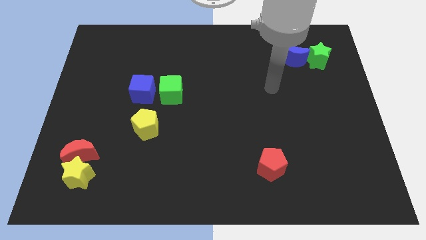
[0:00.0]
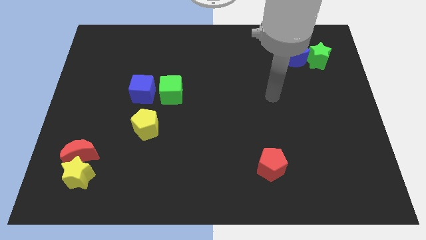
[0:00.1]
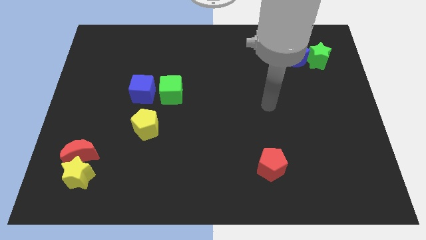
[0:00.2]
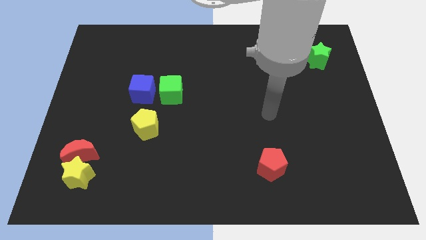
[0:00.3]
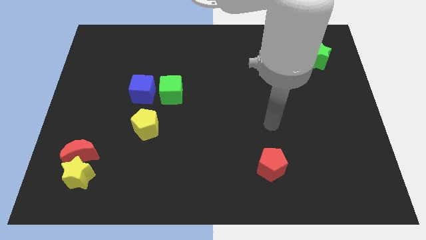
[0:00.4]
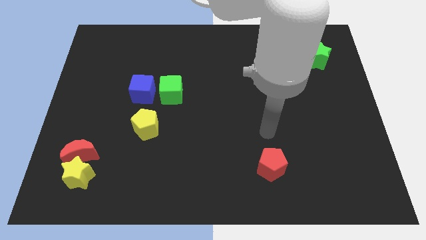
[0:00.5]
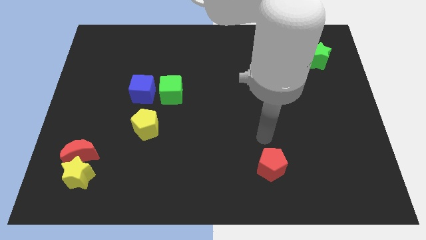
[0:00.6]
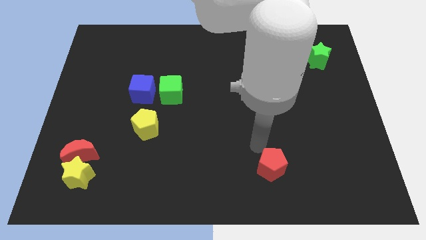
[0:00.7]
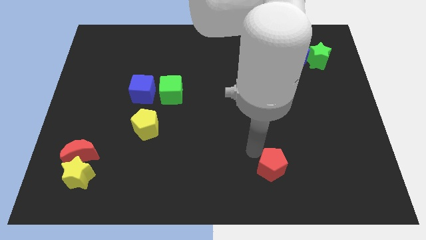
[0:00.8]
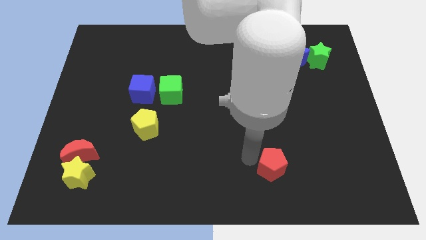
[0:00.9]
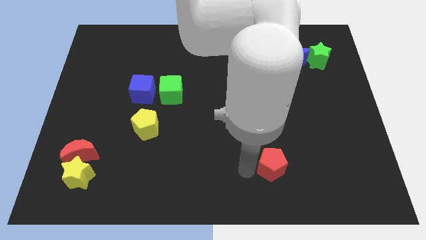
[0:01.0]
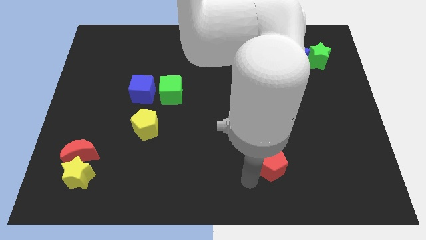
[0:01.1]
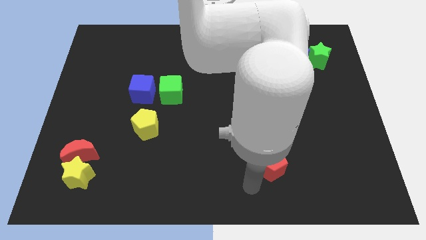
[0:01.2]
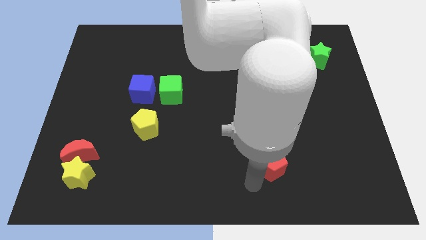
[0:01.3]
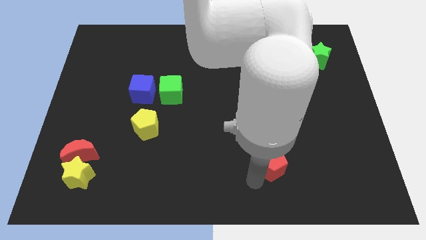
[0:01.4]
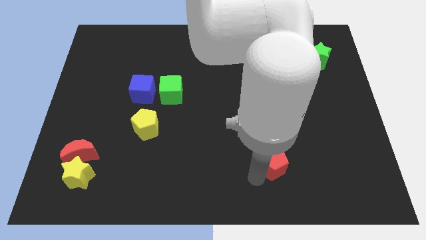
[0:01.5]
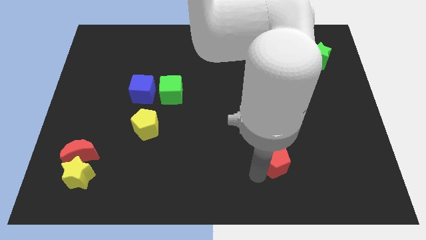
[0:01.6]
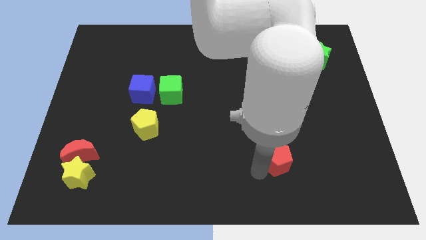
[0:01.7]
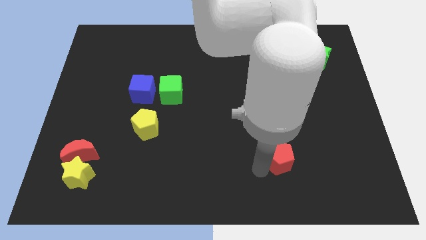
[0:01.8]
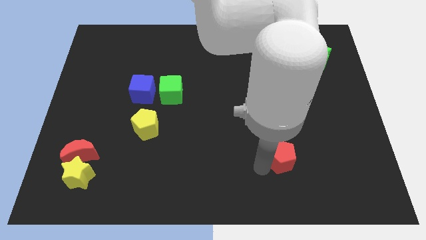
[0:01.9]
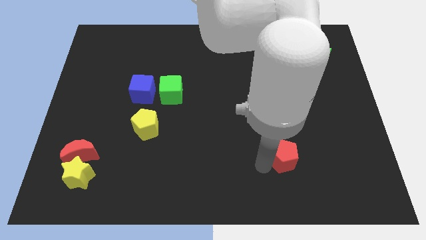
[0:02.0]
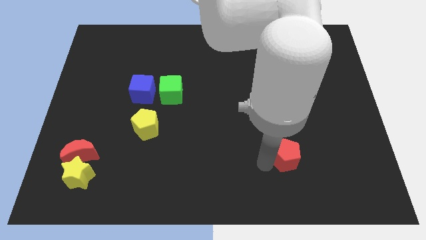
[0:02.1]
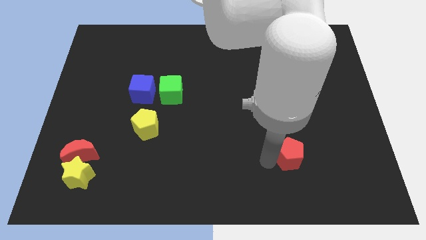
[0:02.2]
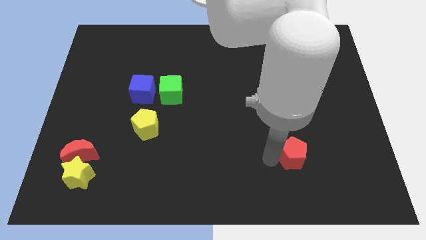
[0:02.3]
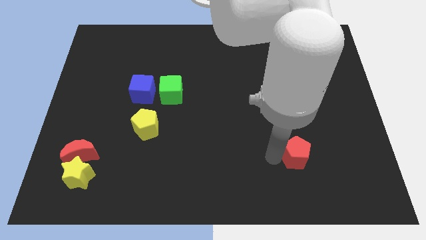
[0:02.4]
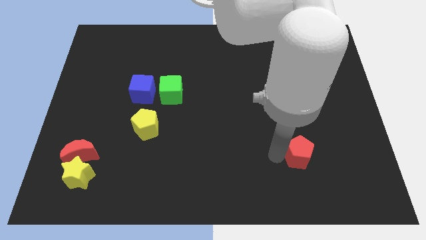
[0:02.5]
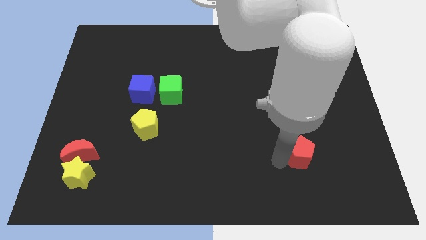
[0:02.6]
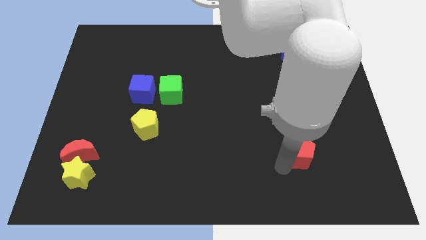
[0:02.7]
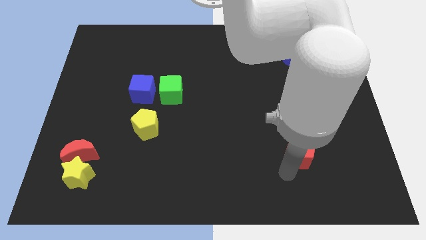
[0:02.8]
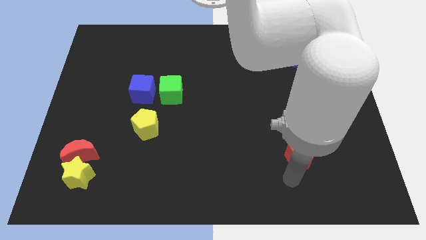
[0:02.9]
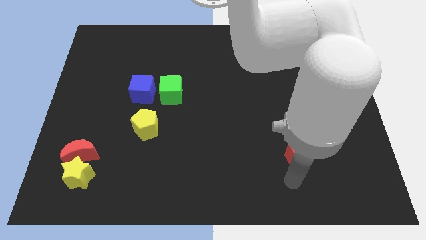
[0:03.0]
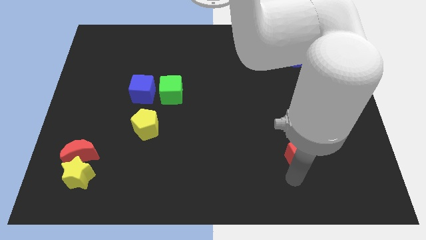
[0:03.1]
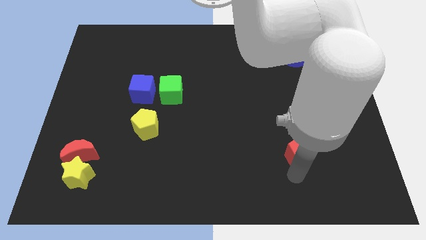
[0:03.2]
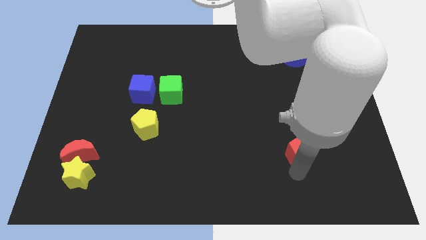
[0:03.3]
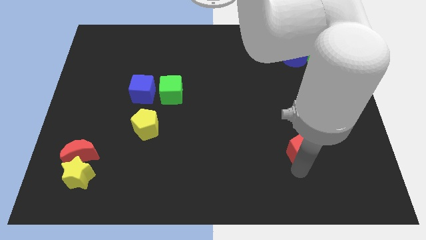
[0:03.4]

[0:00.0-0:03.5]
slightly move the red pentagon diagonally up and to the right

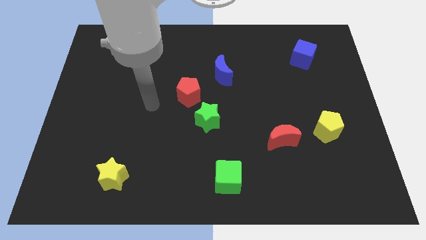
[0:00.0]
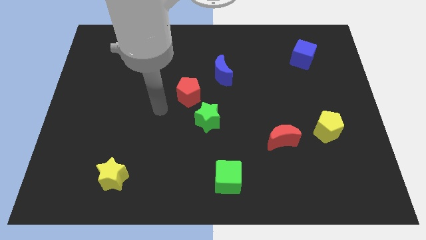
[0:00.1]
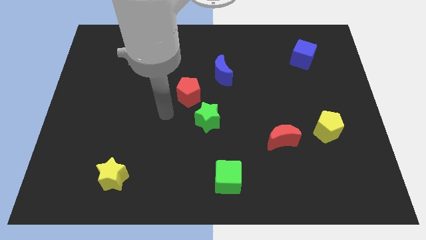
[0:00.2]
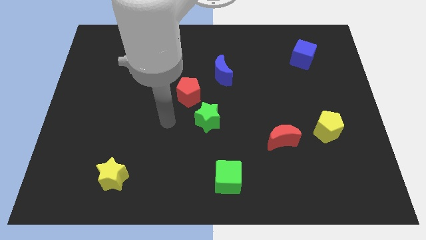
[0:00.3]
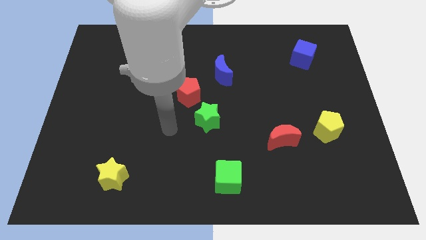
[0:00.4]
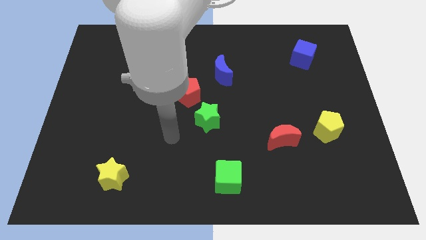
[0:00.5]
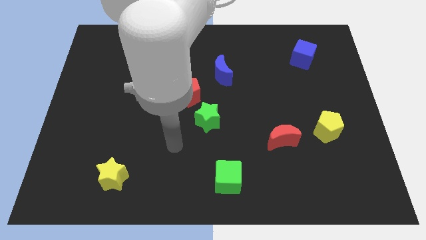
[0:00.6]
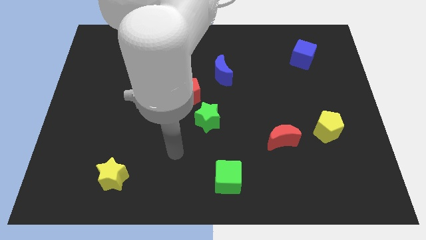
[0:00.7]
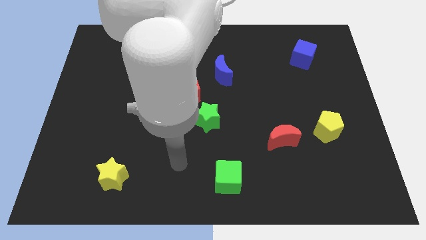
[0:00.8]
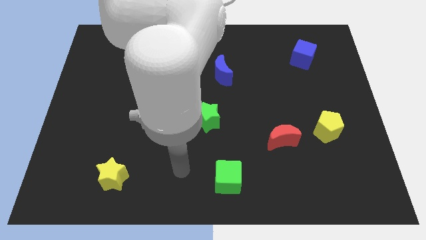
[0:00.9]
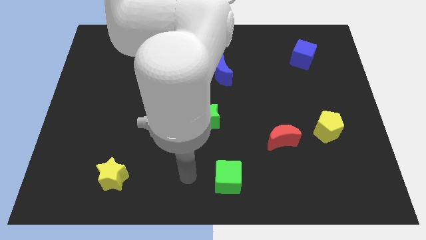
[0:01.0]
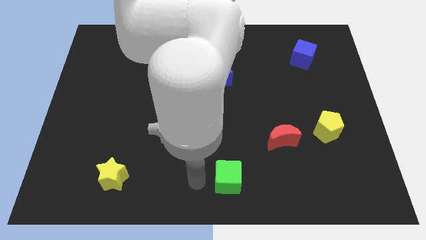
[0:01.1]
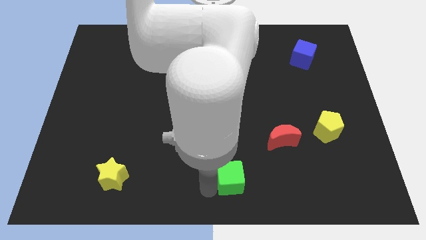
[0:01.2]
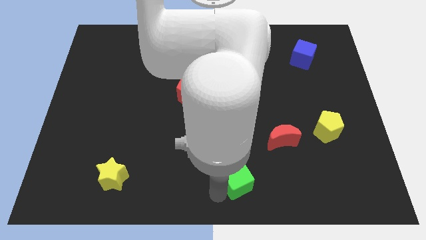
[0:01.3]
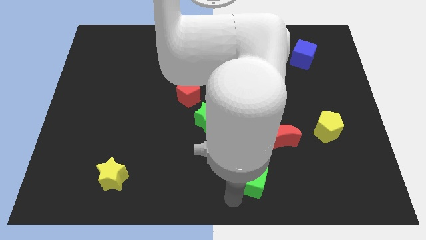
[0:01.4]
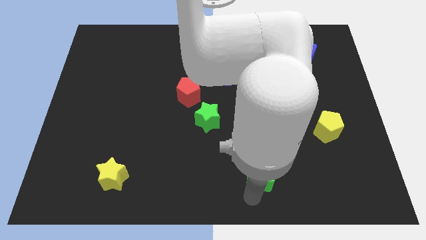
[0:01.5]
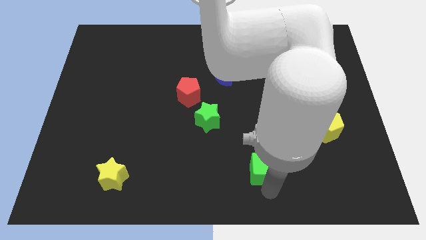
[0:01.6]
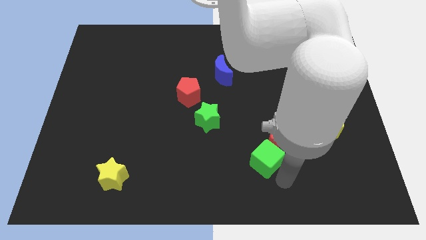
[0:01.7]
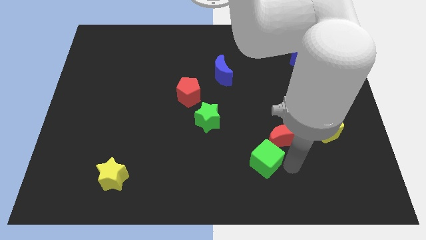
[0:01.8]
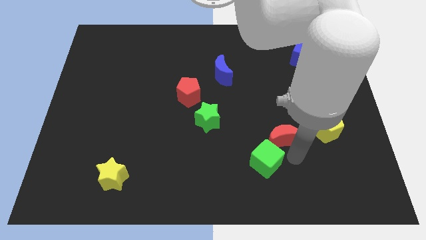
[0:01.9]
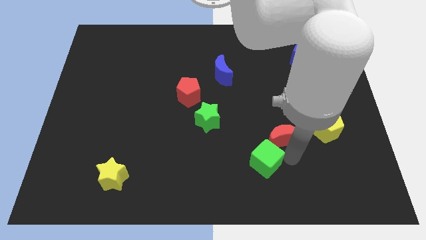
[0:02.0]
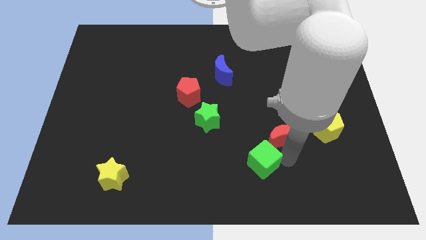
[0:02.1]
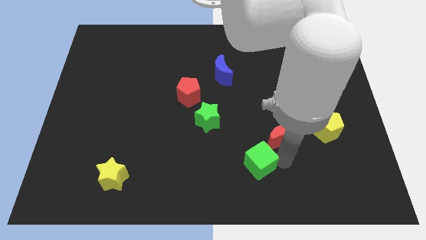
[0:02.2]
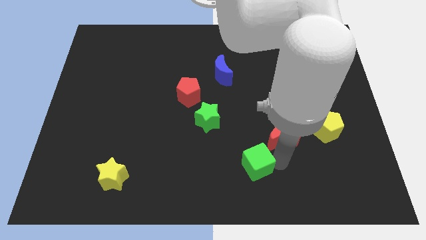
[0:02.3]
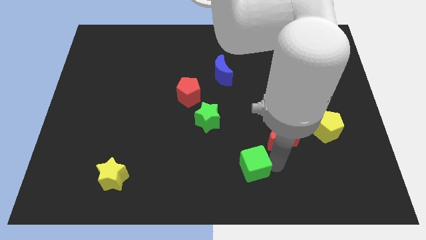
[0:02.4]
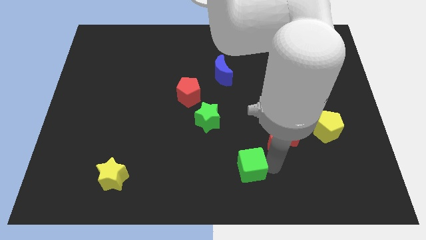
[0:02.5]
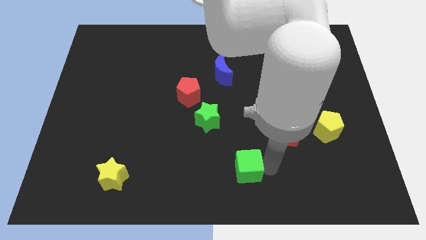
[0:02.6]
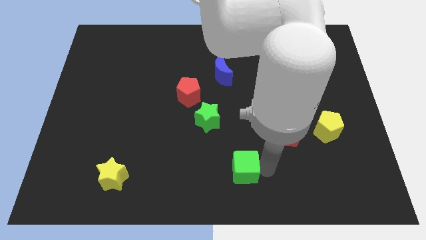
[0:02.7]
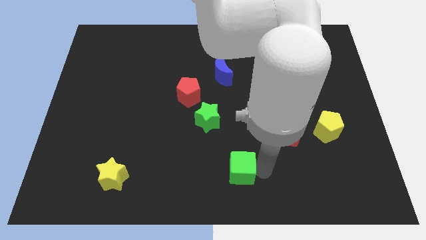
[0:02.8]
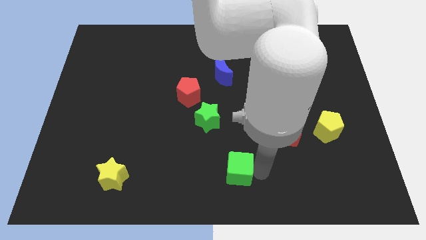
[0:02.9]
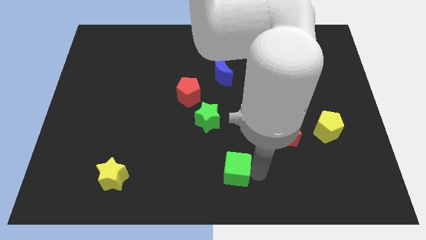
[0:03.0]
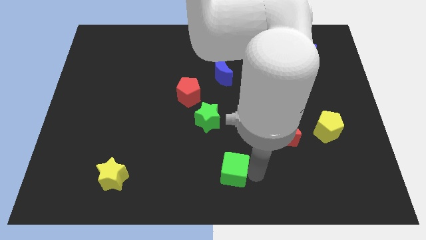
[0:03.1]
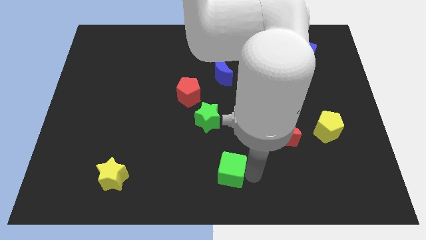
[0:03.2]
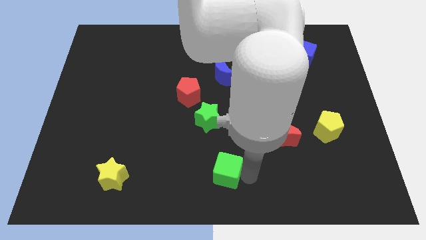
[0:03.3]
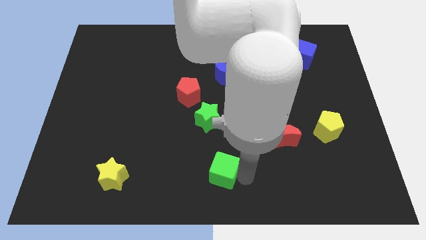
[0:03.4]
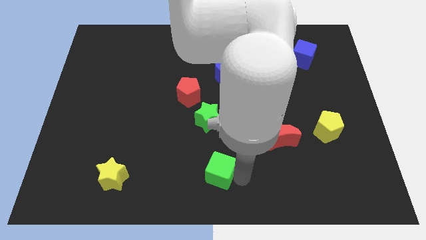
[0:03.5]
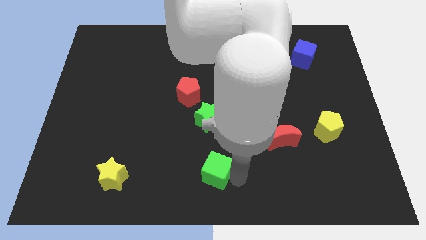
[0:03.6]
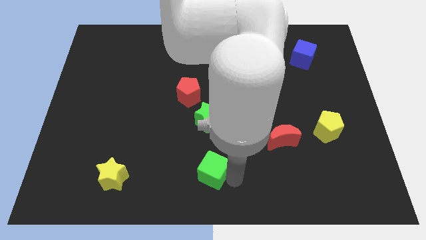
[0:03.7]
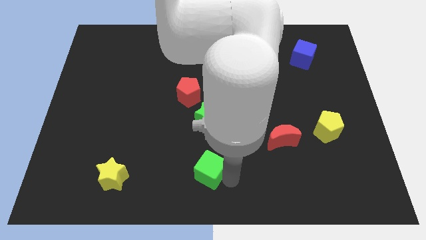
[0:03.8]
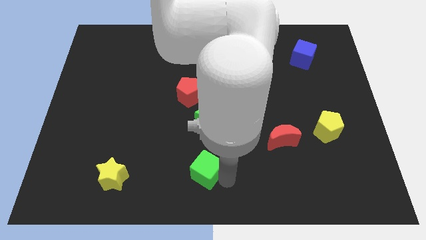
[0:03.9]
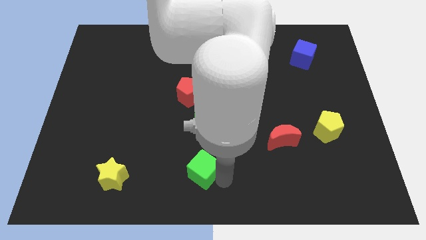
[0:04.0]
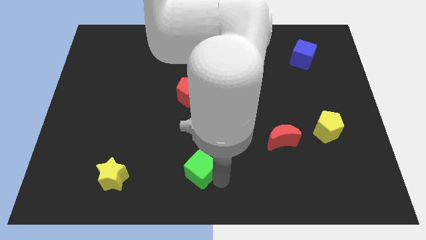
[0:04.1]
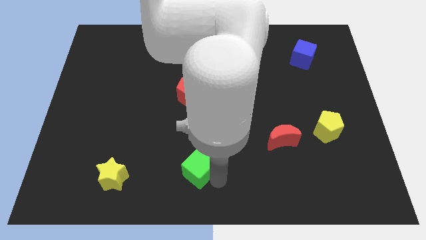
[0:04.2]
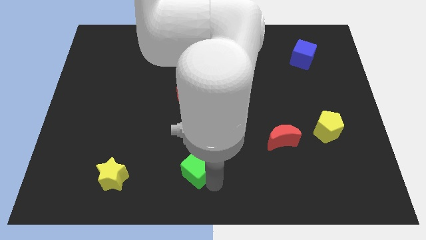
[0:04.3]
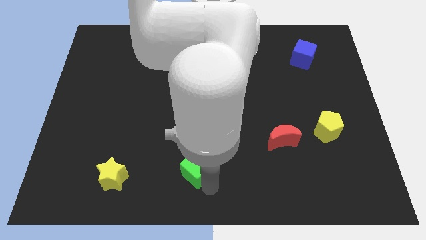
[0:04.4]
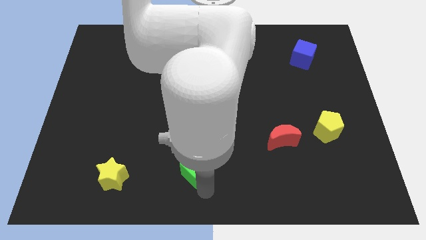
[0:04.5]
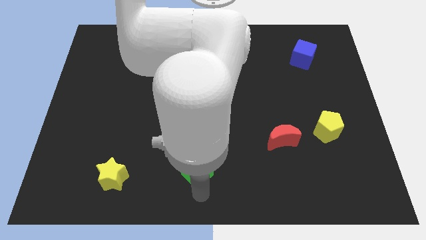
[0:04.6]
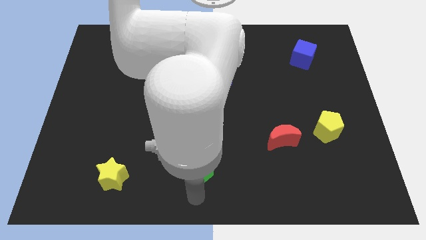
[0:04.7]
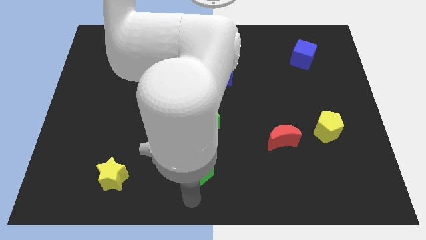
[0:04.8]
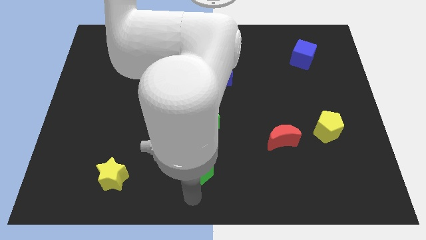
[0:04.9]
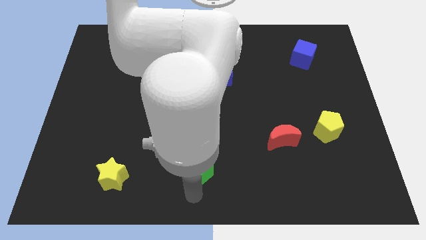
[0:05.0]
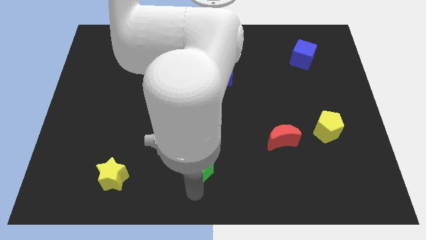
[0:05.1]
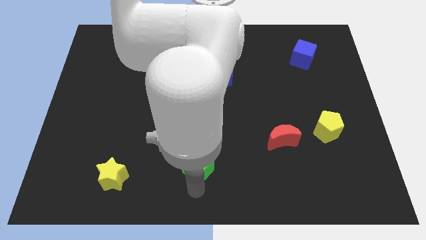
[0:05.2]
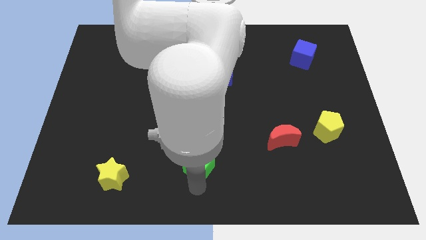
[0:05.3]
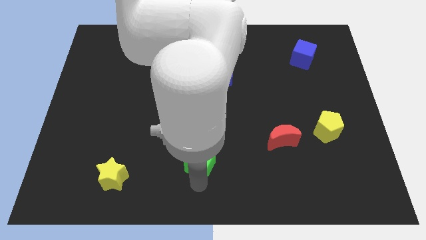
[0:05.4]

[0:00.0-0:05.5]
slide the green cube a little bit upwards and left diagonally
